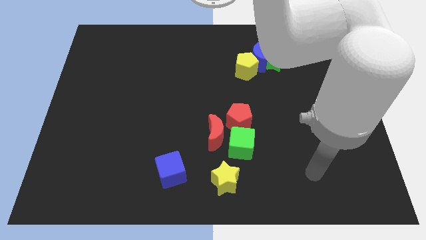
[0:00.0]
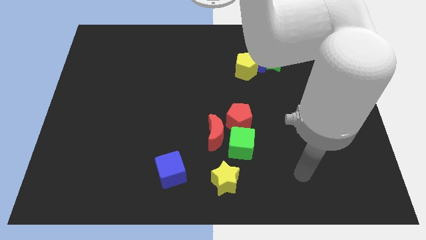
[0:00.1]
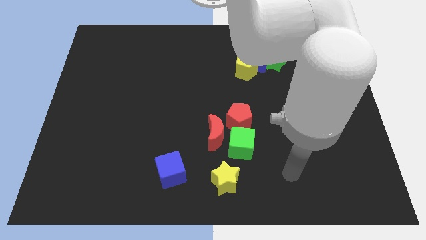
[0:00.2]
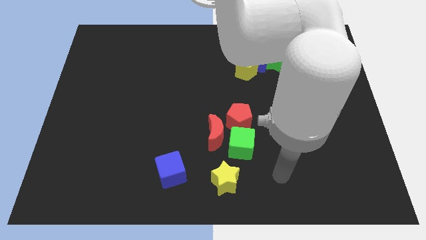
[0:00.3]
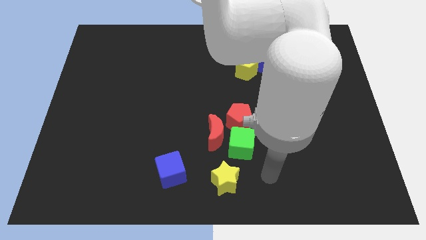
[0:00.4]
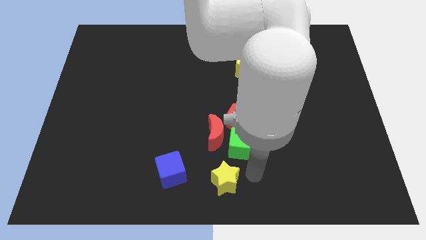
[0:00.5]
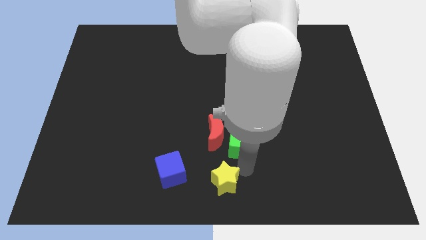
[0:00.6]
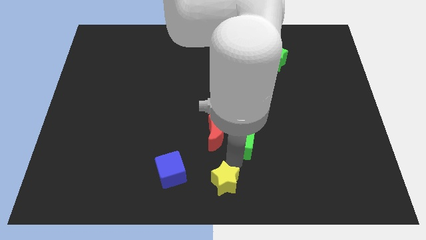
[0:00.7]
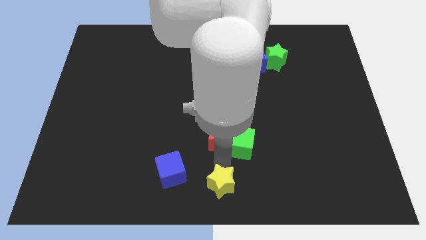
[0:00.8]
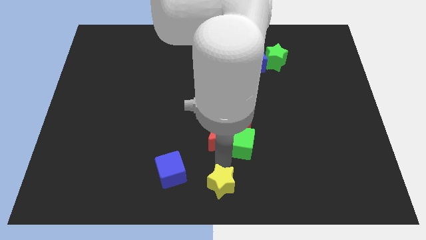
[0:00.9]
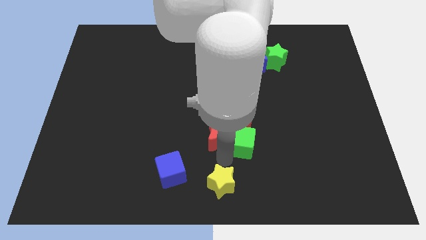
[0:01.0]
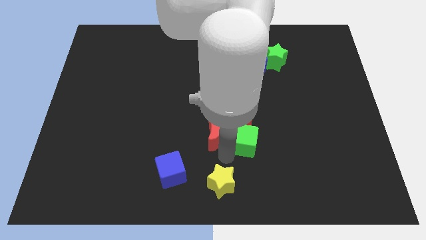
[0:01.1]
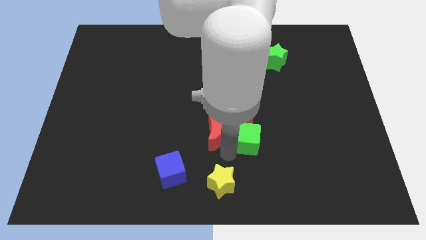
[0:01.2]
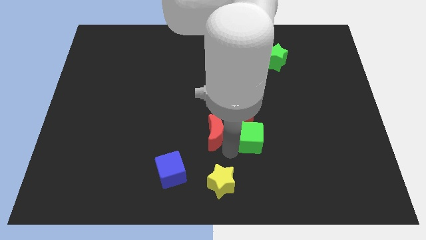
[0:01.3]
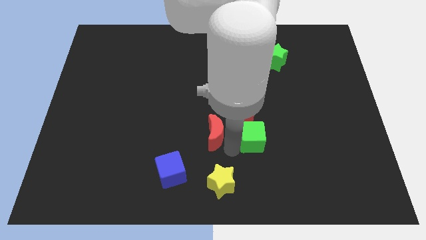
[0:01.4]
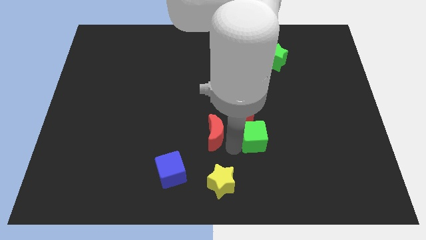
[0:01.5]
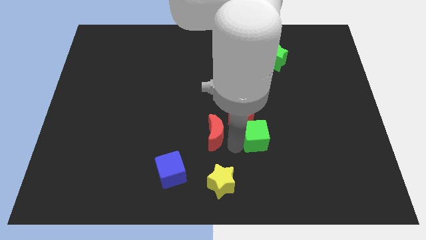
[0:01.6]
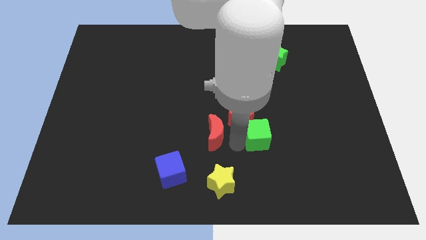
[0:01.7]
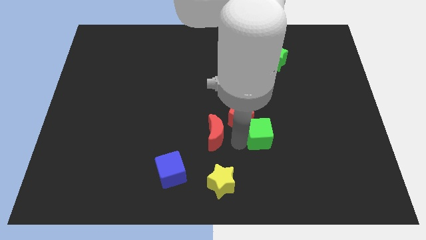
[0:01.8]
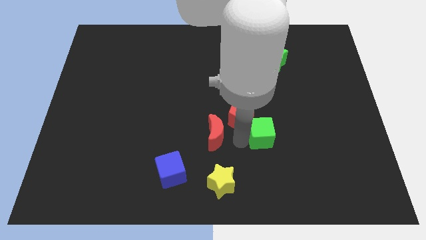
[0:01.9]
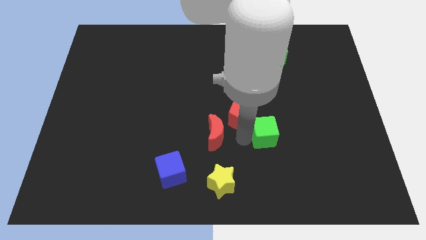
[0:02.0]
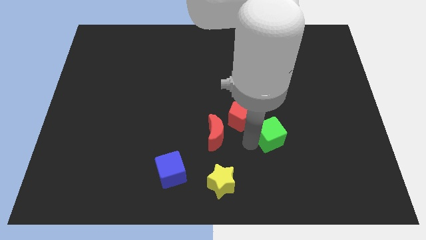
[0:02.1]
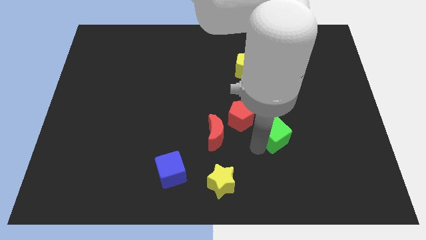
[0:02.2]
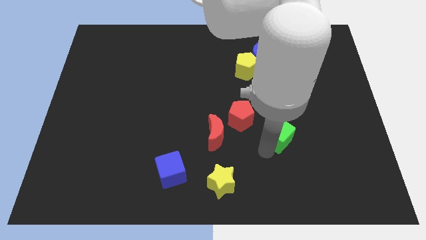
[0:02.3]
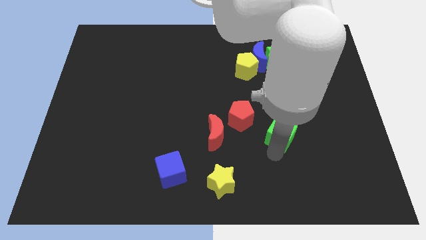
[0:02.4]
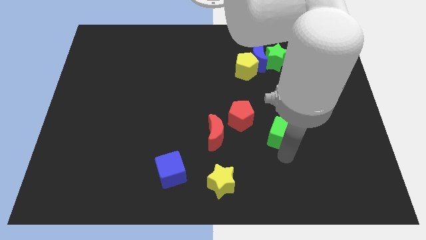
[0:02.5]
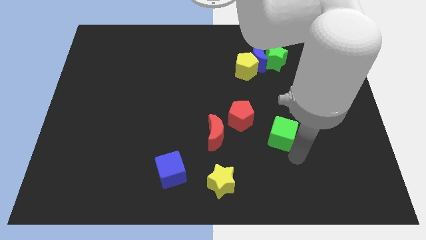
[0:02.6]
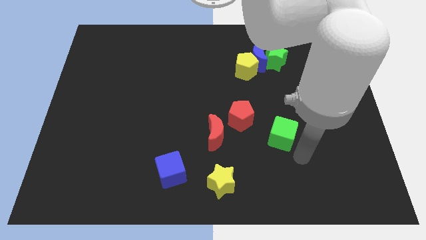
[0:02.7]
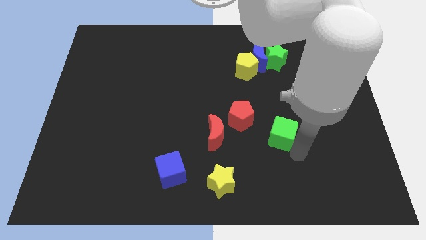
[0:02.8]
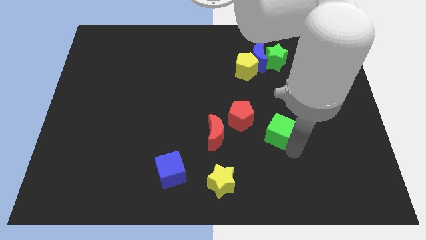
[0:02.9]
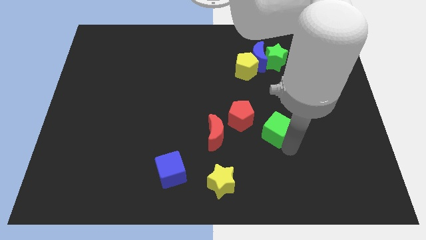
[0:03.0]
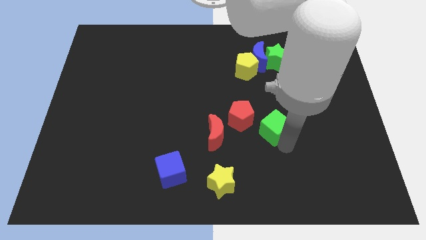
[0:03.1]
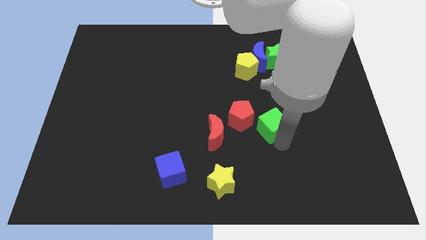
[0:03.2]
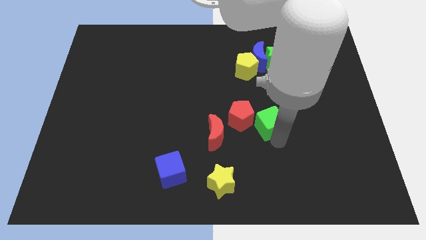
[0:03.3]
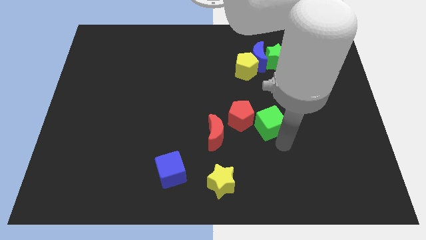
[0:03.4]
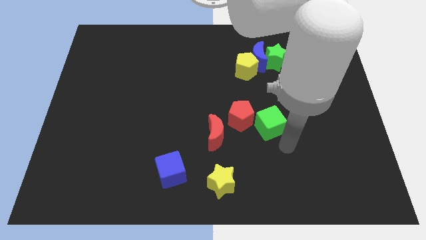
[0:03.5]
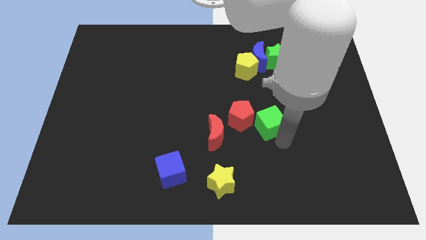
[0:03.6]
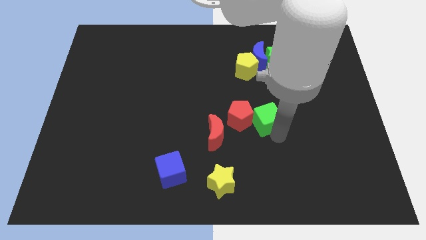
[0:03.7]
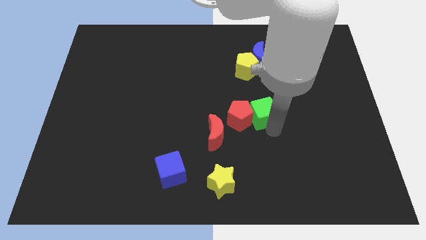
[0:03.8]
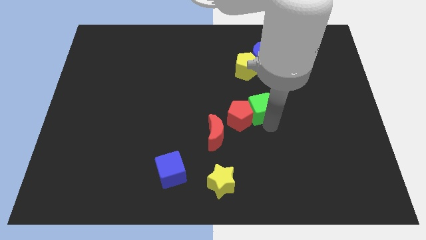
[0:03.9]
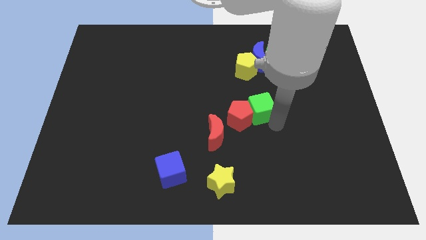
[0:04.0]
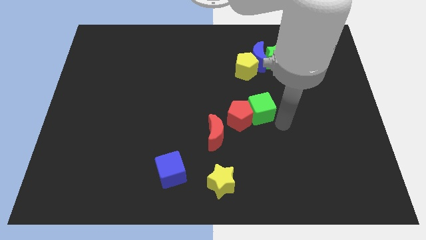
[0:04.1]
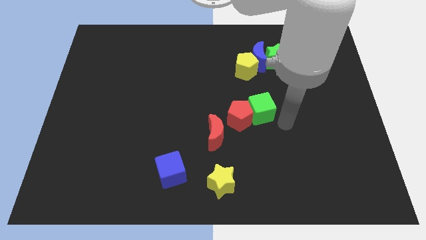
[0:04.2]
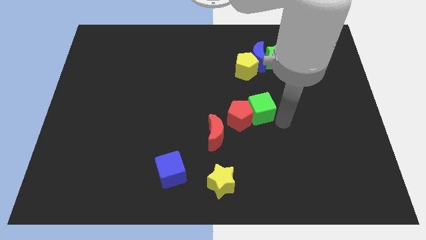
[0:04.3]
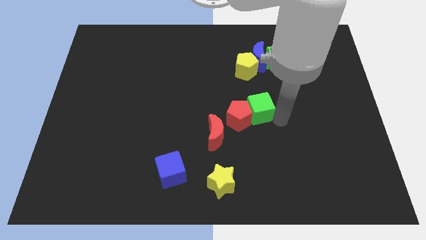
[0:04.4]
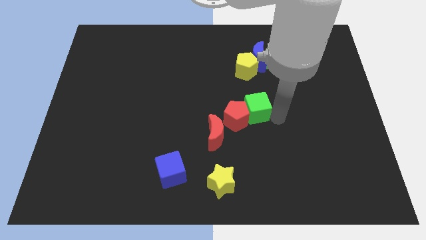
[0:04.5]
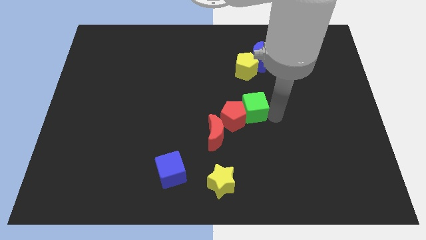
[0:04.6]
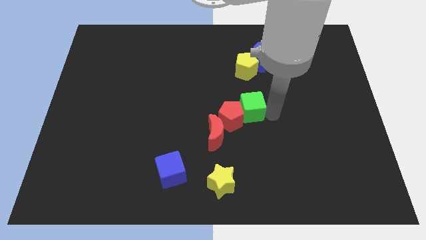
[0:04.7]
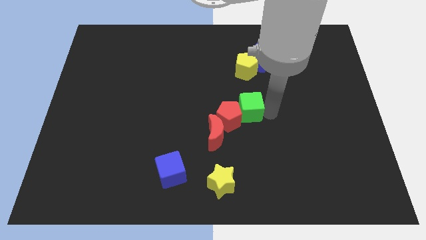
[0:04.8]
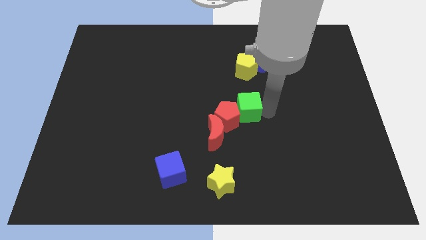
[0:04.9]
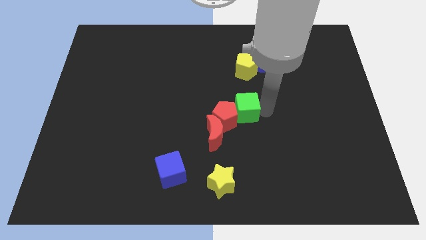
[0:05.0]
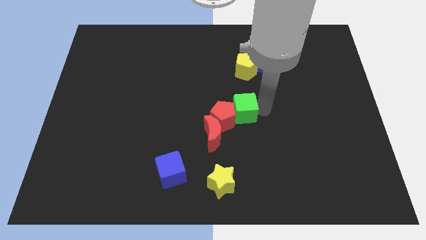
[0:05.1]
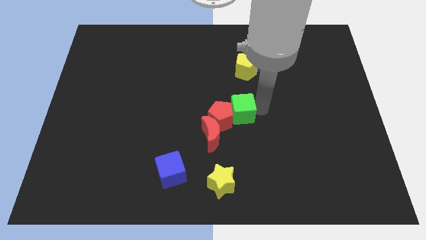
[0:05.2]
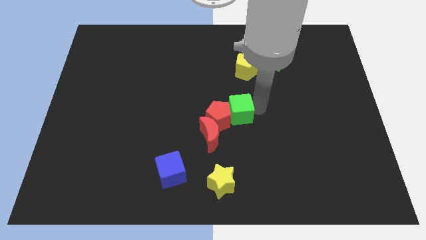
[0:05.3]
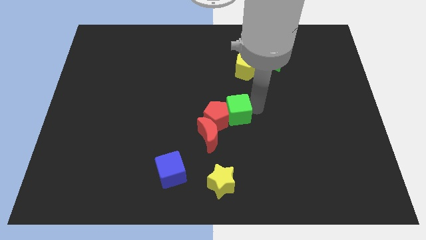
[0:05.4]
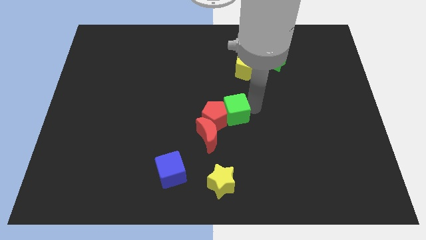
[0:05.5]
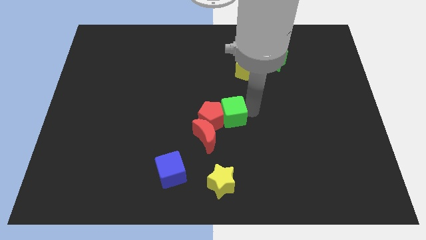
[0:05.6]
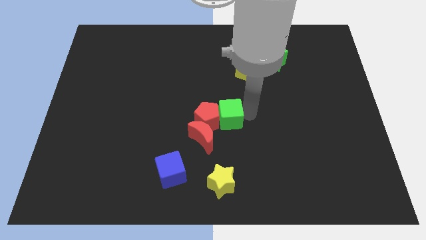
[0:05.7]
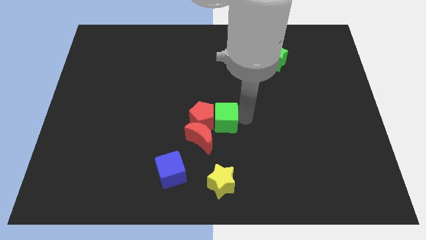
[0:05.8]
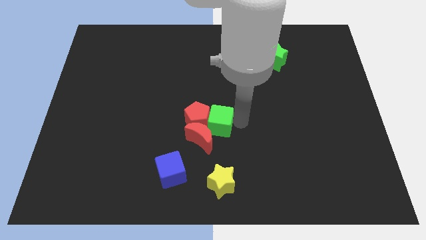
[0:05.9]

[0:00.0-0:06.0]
push the green cube above the red moon

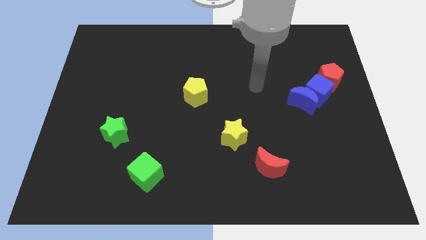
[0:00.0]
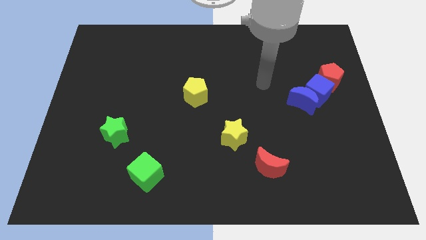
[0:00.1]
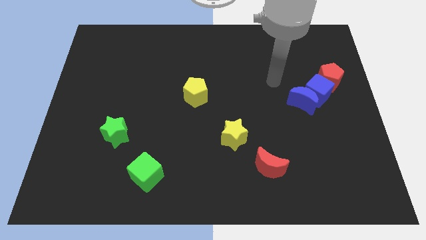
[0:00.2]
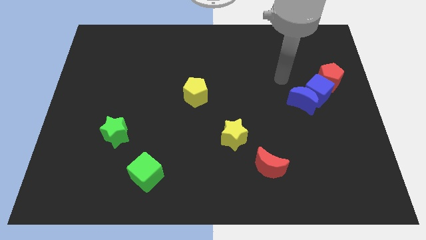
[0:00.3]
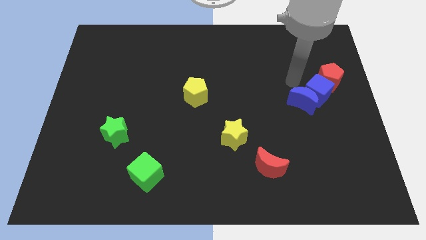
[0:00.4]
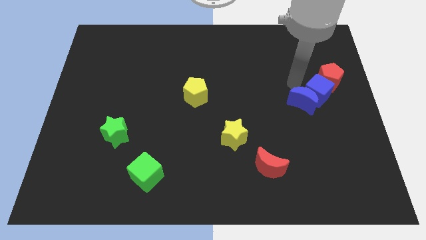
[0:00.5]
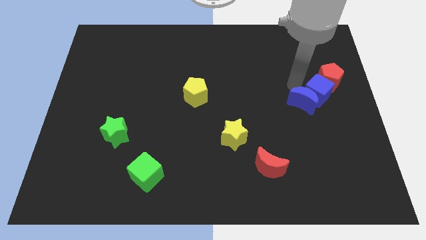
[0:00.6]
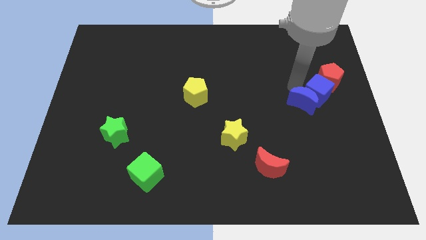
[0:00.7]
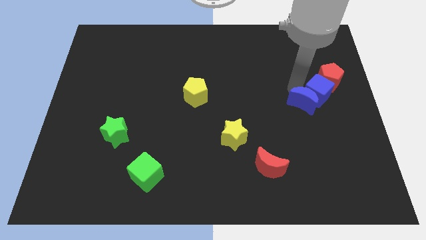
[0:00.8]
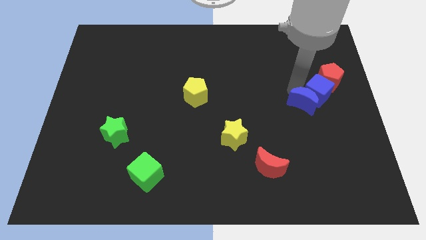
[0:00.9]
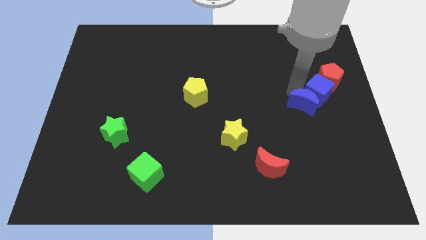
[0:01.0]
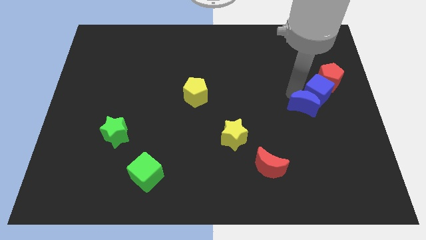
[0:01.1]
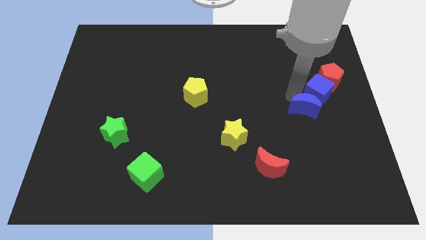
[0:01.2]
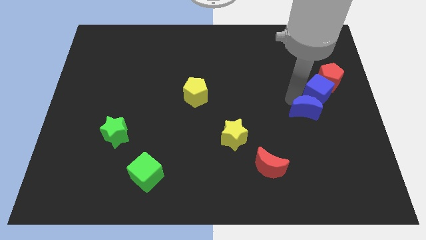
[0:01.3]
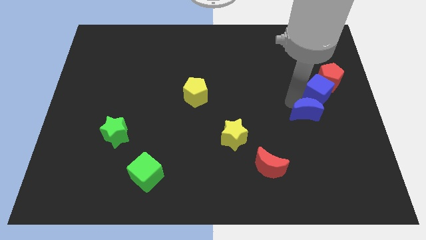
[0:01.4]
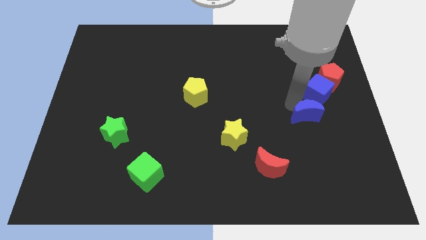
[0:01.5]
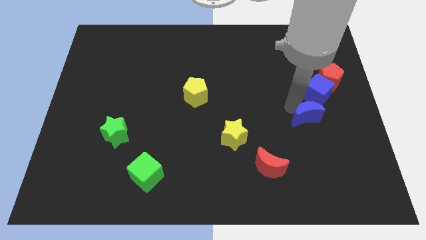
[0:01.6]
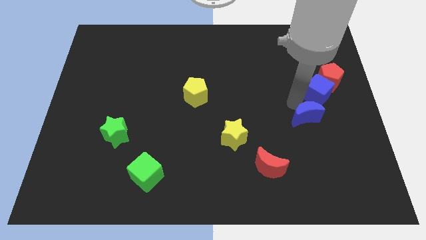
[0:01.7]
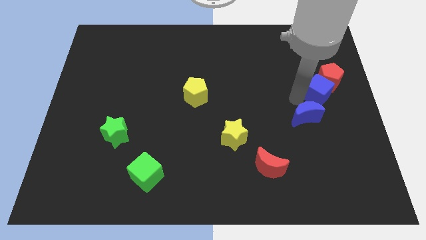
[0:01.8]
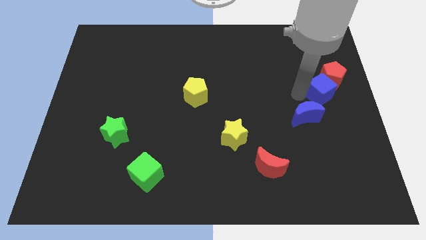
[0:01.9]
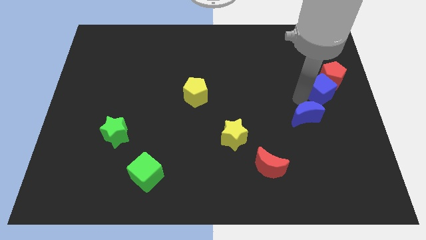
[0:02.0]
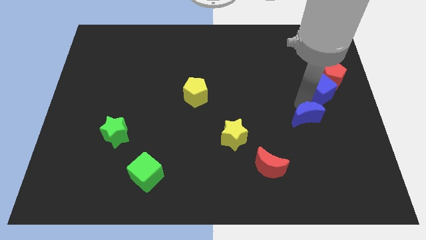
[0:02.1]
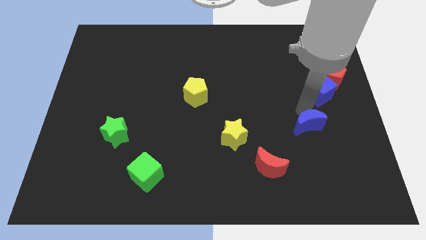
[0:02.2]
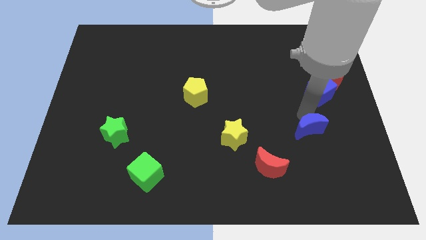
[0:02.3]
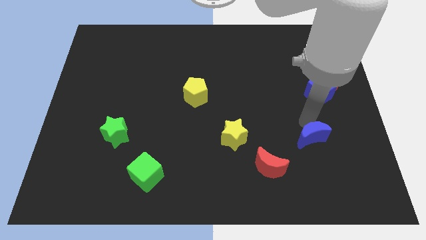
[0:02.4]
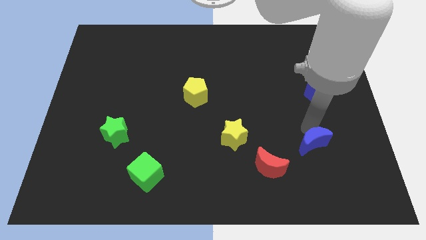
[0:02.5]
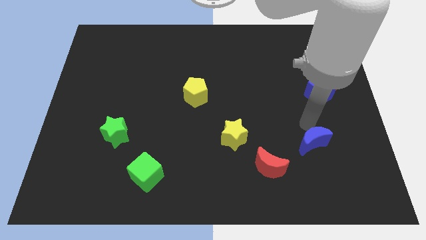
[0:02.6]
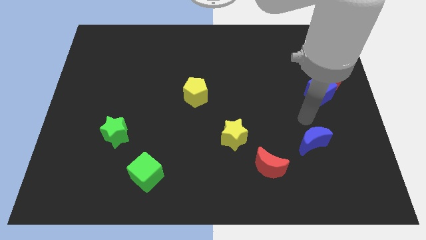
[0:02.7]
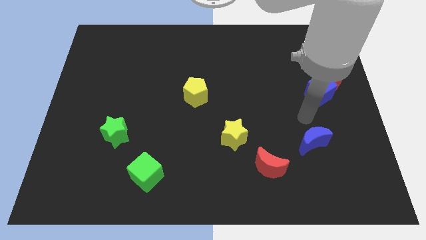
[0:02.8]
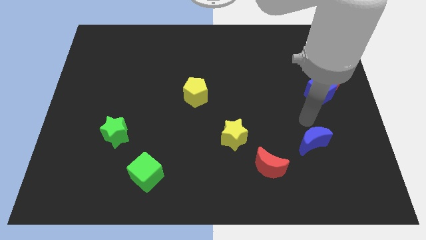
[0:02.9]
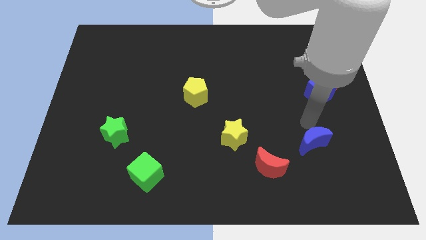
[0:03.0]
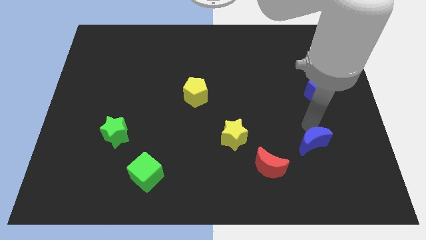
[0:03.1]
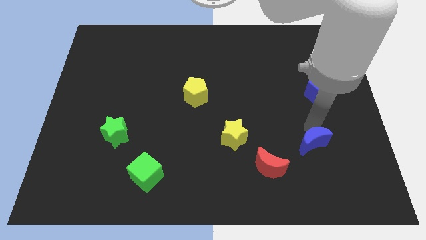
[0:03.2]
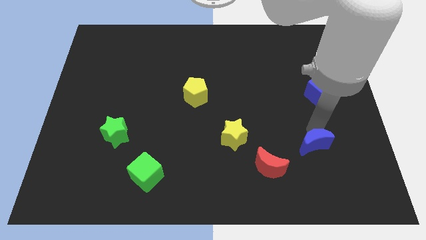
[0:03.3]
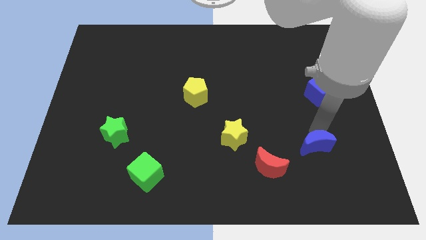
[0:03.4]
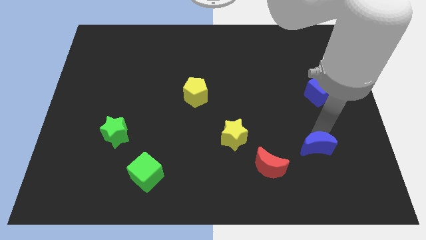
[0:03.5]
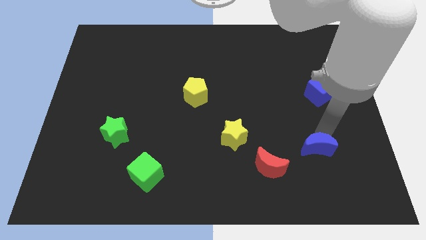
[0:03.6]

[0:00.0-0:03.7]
put the blue moon to the right side of the red moon
